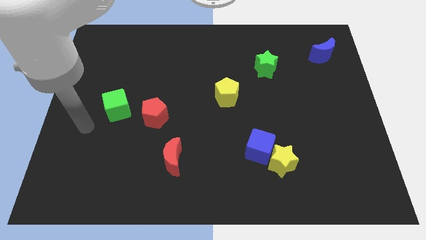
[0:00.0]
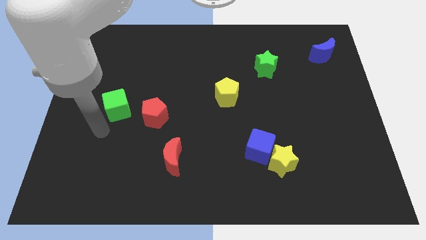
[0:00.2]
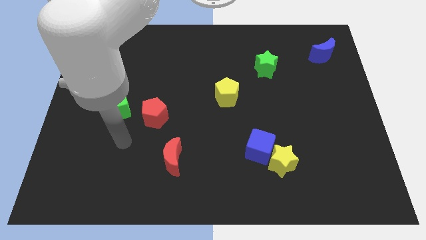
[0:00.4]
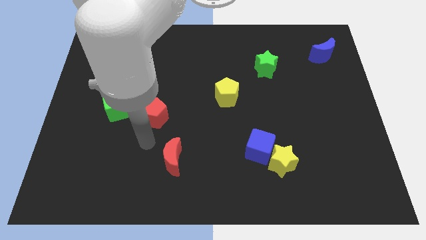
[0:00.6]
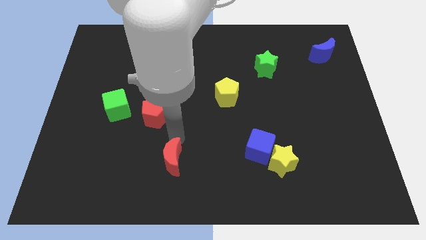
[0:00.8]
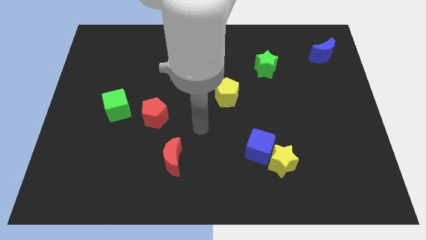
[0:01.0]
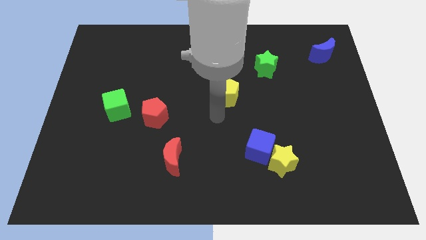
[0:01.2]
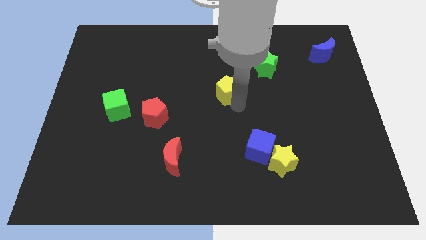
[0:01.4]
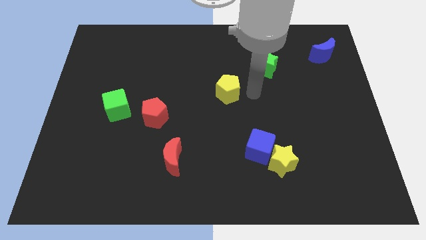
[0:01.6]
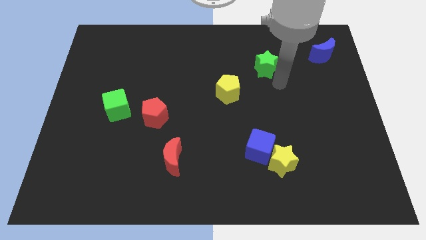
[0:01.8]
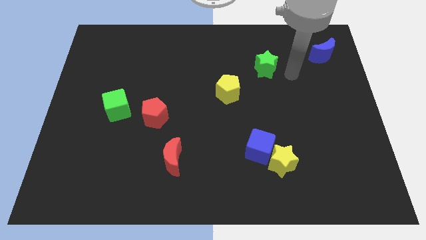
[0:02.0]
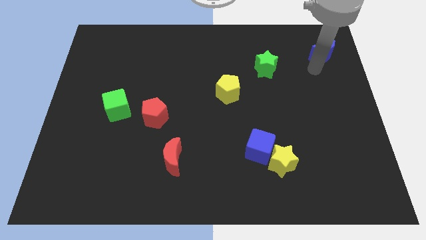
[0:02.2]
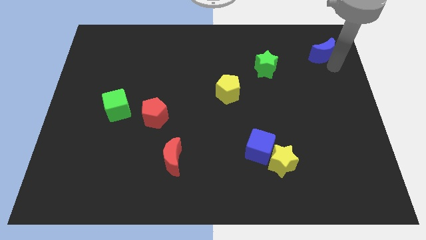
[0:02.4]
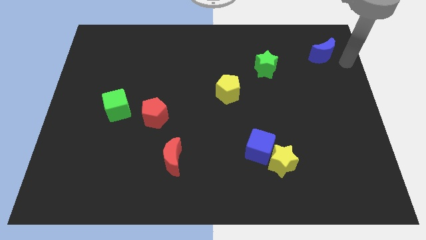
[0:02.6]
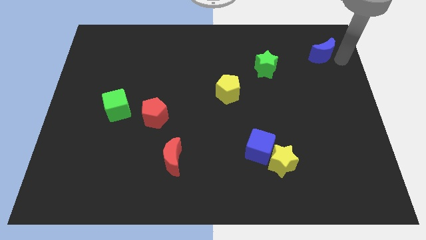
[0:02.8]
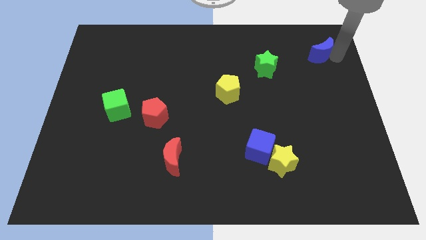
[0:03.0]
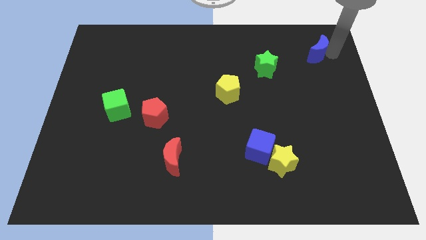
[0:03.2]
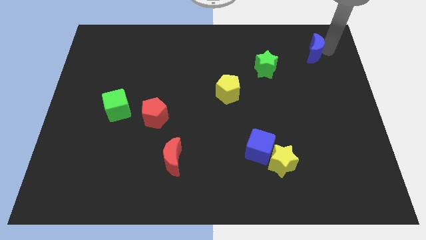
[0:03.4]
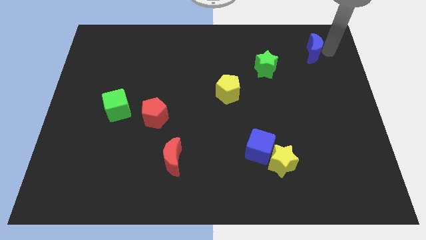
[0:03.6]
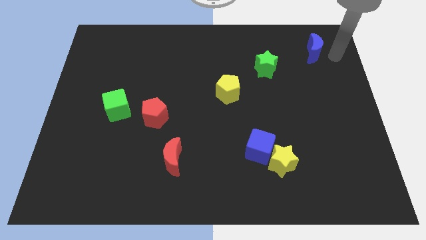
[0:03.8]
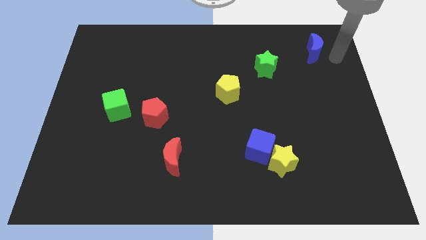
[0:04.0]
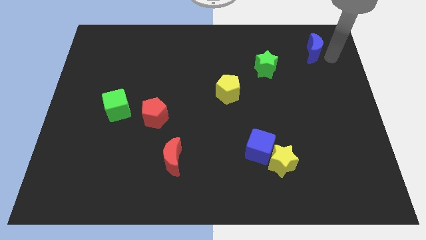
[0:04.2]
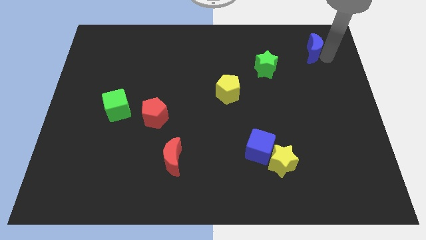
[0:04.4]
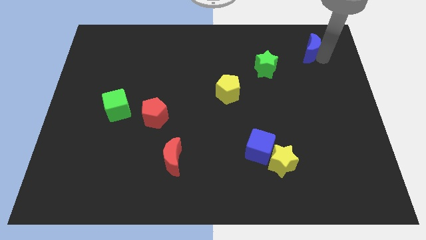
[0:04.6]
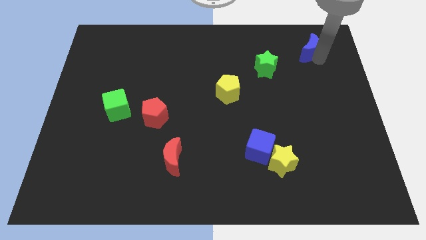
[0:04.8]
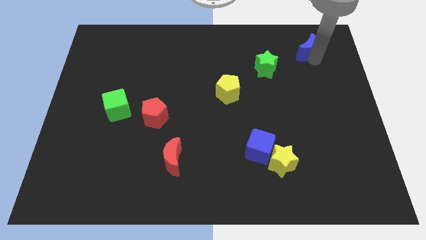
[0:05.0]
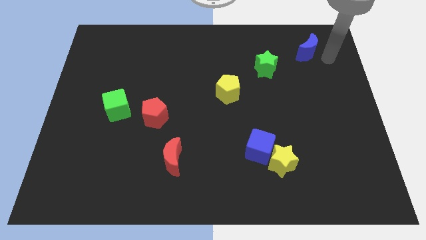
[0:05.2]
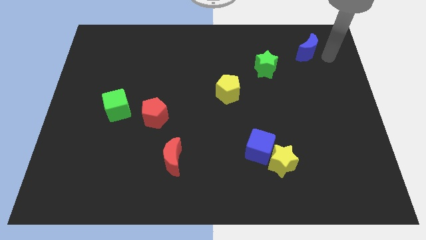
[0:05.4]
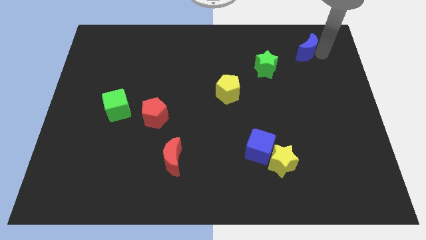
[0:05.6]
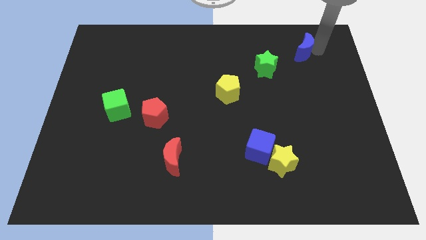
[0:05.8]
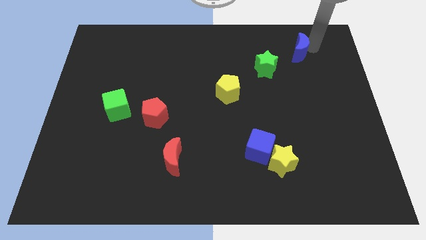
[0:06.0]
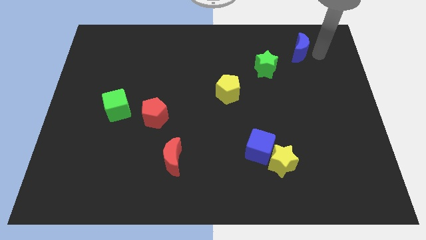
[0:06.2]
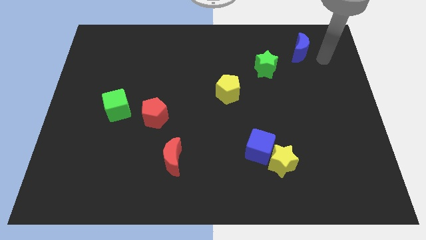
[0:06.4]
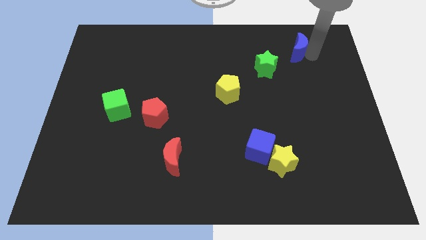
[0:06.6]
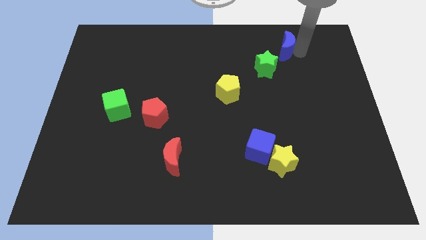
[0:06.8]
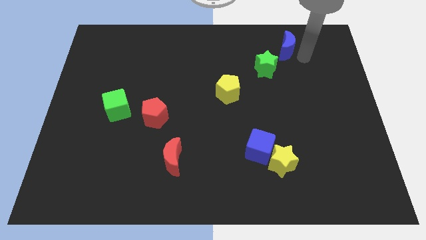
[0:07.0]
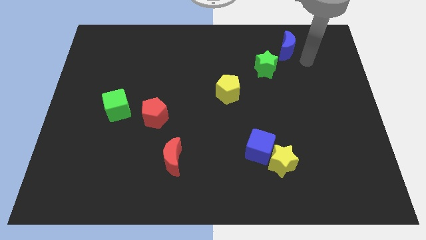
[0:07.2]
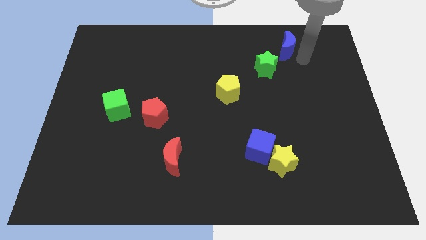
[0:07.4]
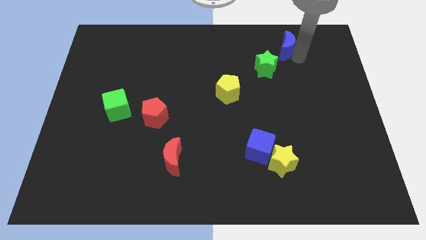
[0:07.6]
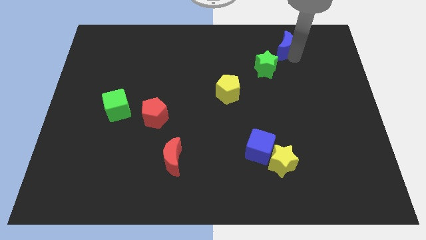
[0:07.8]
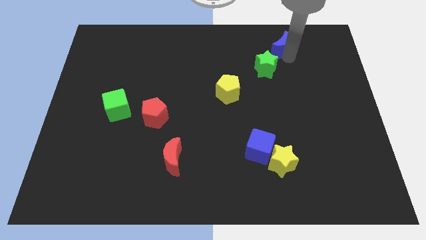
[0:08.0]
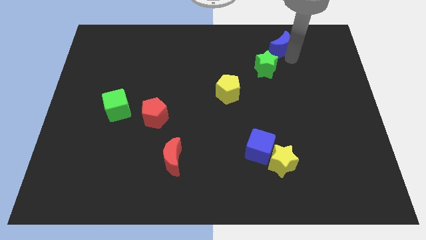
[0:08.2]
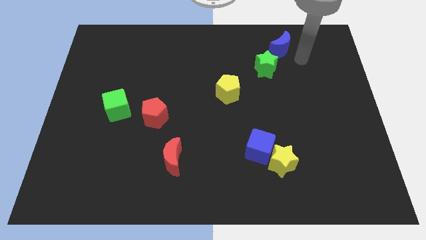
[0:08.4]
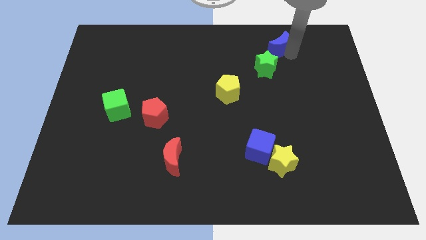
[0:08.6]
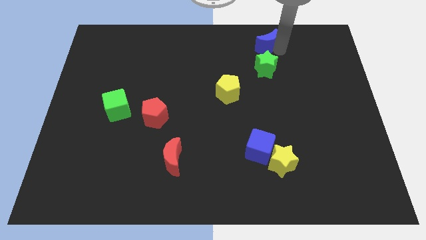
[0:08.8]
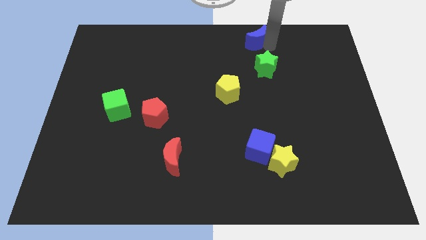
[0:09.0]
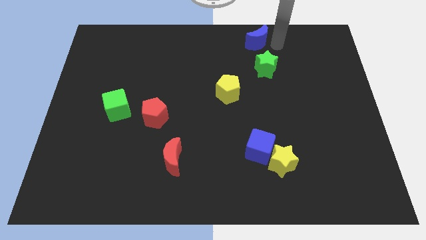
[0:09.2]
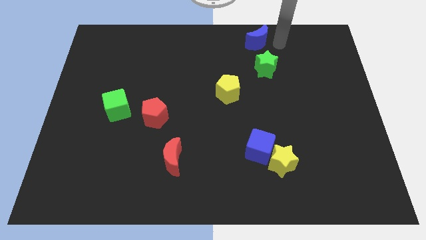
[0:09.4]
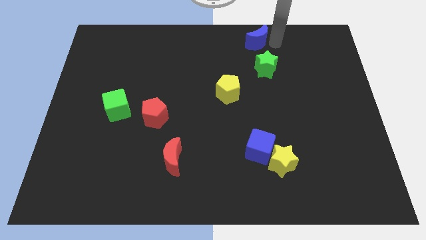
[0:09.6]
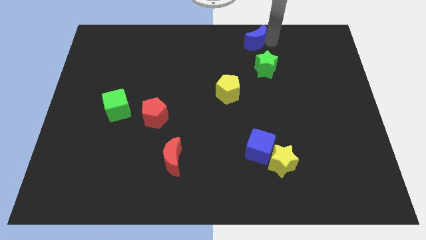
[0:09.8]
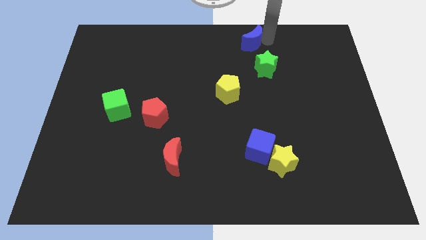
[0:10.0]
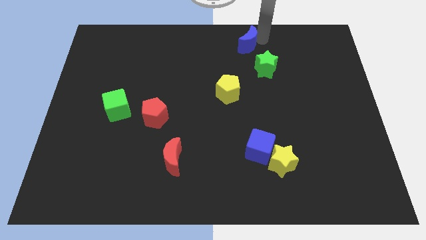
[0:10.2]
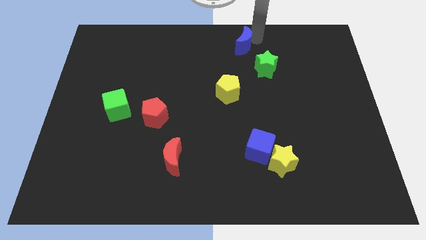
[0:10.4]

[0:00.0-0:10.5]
move the blue moon left

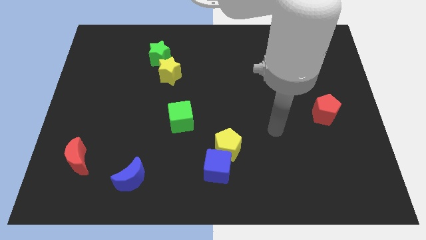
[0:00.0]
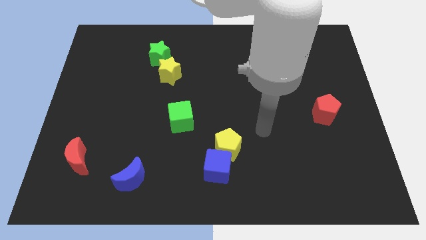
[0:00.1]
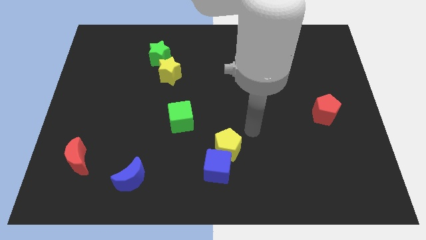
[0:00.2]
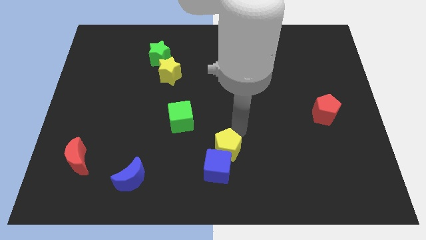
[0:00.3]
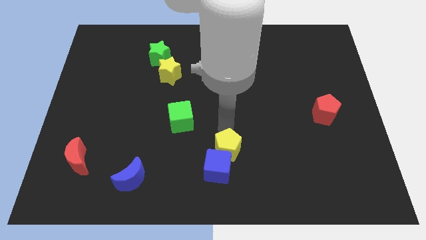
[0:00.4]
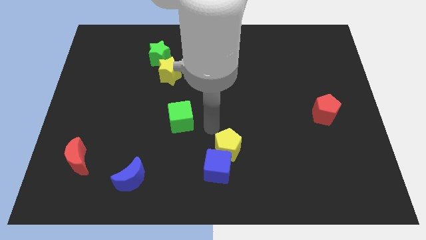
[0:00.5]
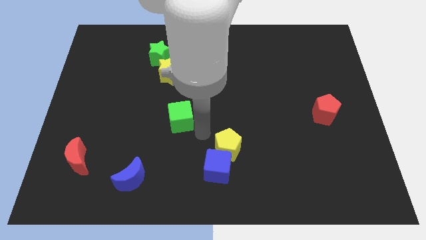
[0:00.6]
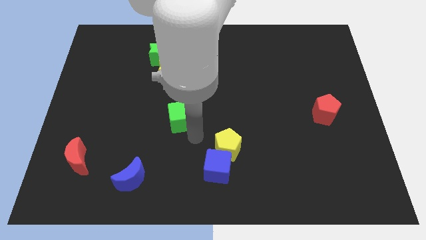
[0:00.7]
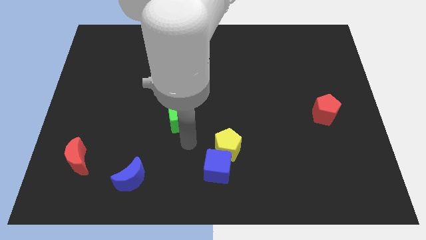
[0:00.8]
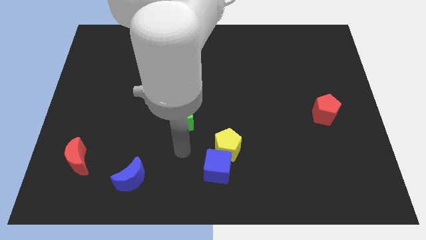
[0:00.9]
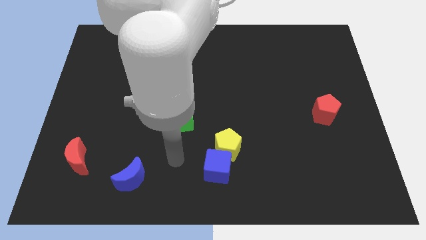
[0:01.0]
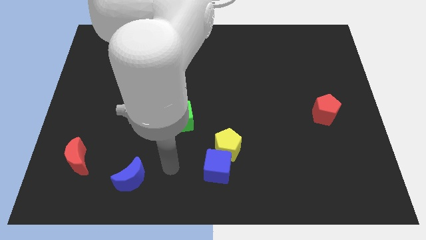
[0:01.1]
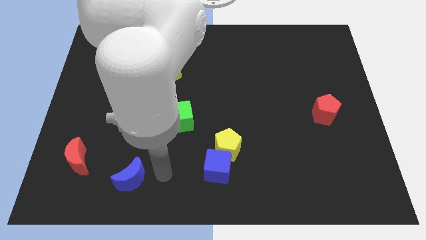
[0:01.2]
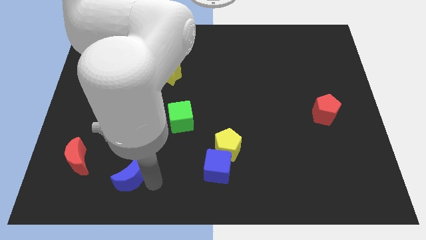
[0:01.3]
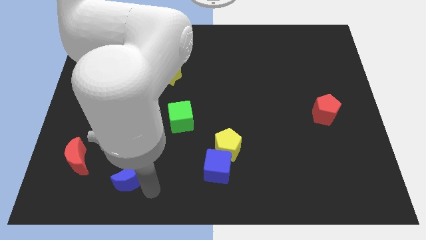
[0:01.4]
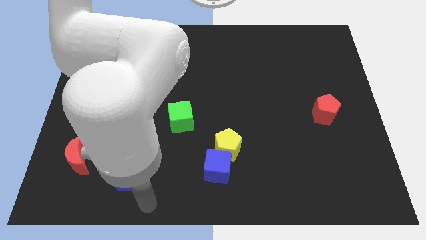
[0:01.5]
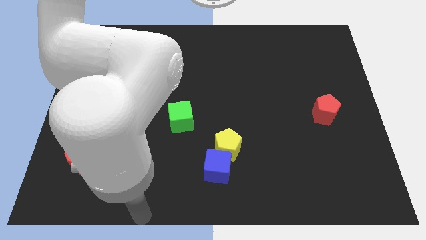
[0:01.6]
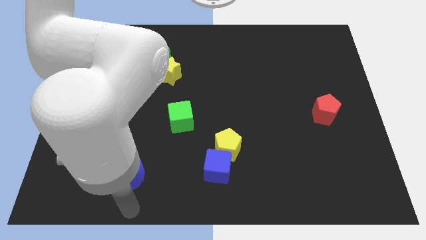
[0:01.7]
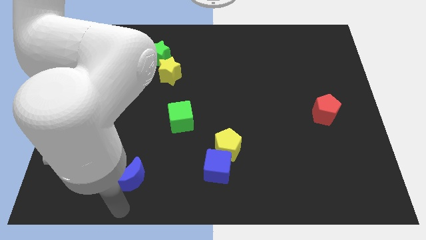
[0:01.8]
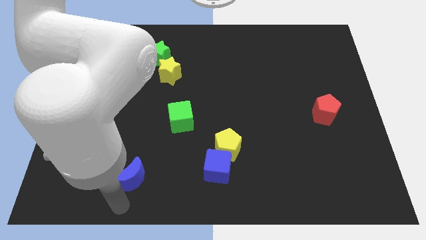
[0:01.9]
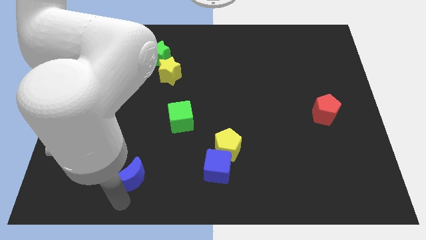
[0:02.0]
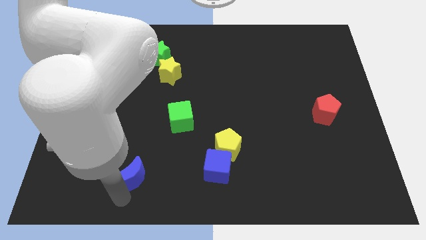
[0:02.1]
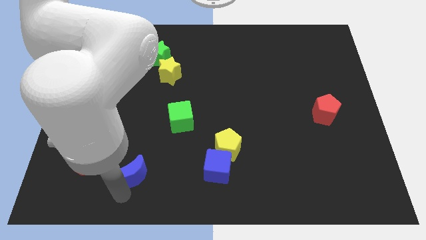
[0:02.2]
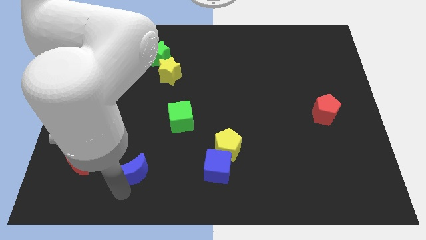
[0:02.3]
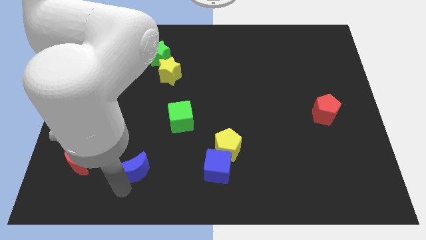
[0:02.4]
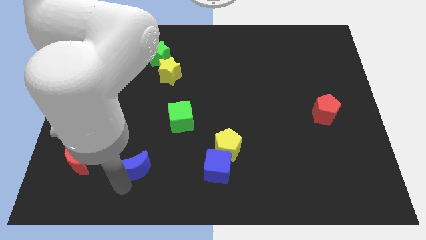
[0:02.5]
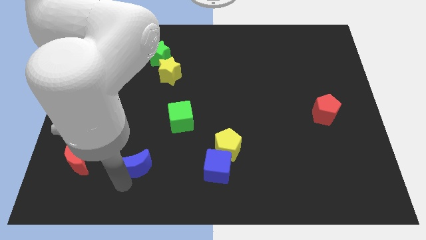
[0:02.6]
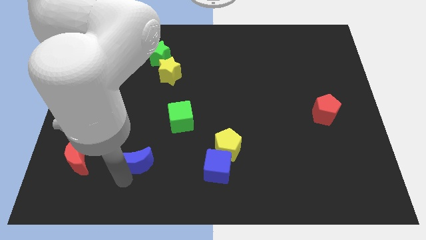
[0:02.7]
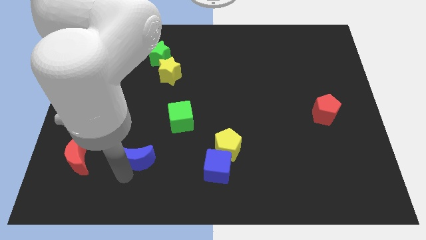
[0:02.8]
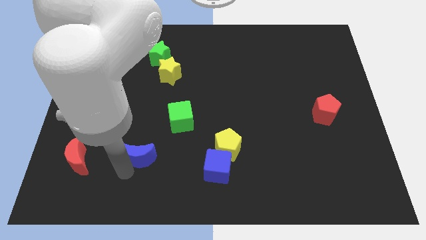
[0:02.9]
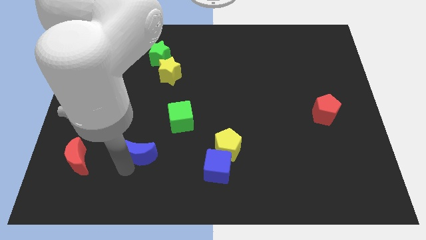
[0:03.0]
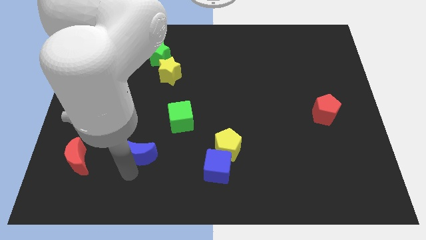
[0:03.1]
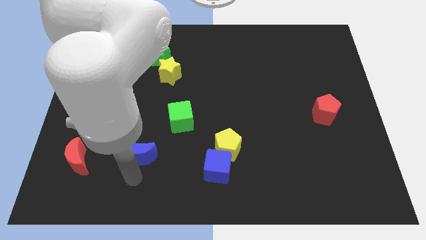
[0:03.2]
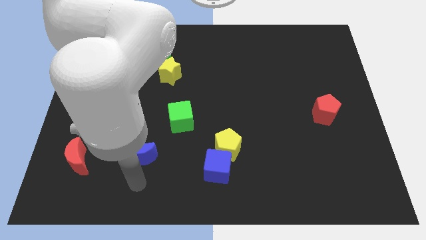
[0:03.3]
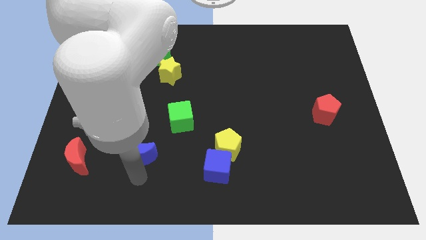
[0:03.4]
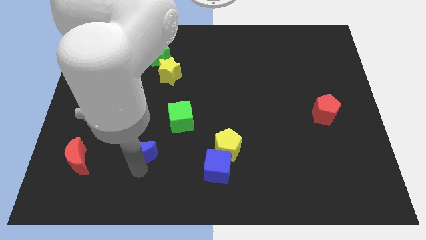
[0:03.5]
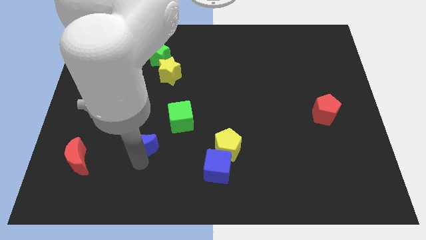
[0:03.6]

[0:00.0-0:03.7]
slightly move the blue moon upwards
